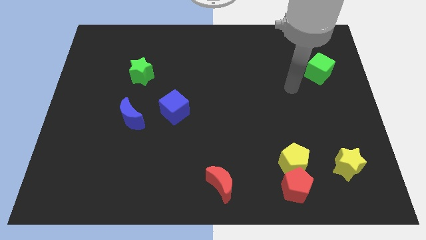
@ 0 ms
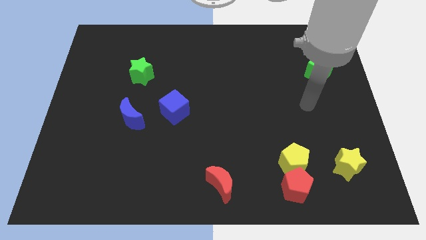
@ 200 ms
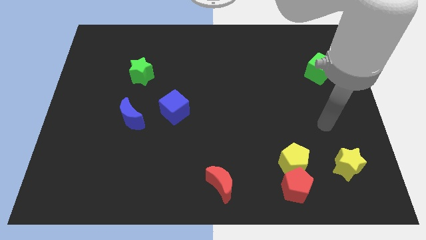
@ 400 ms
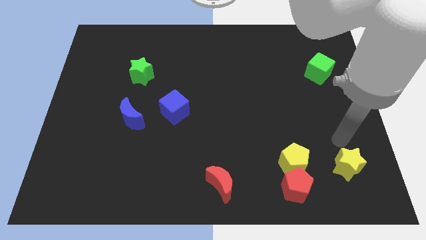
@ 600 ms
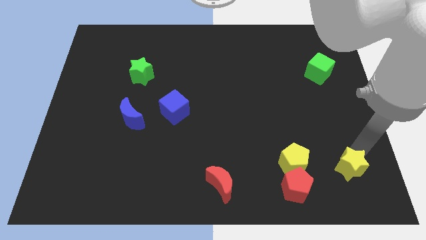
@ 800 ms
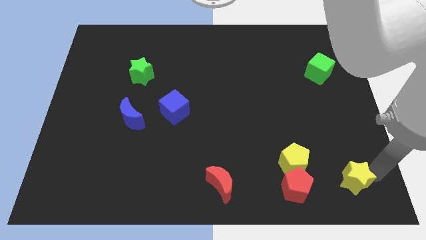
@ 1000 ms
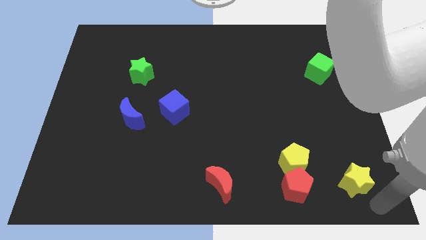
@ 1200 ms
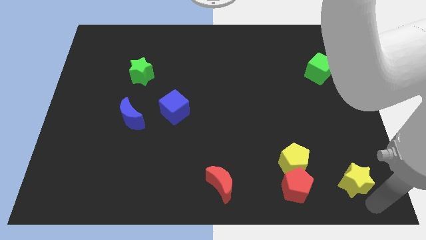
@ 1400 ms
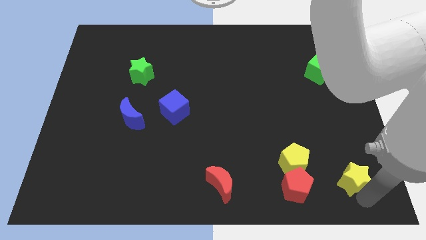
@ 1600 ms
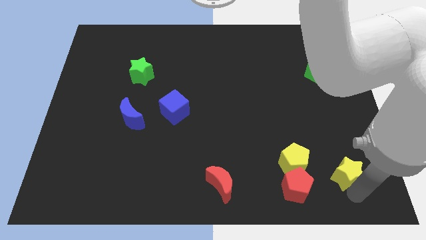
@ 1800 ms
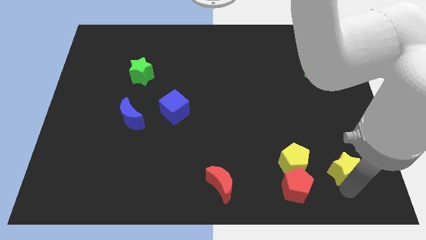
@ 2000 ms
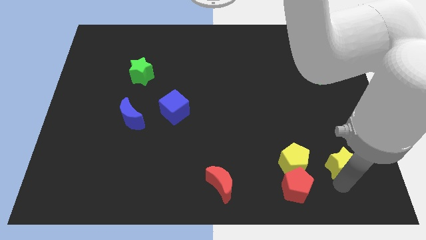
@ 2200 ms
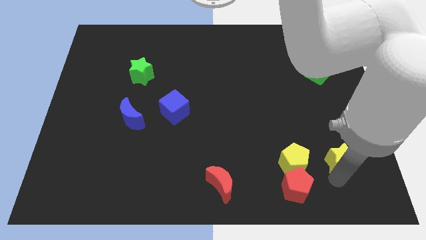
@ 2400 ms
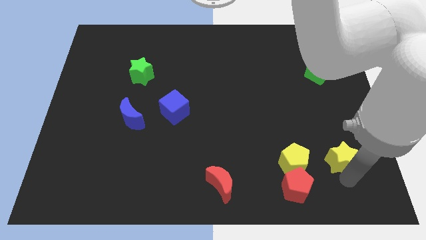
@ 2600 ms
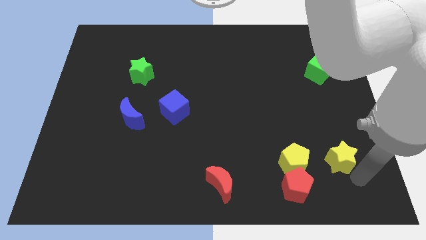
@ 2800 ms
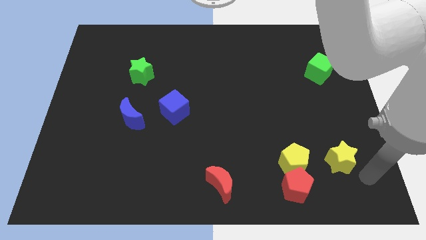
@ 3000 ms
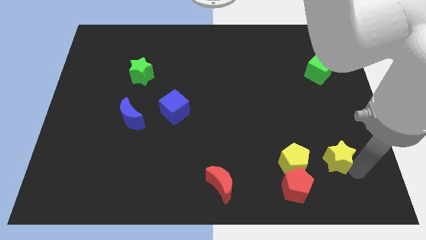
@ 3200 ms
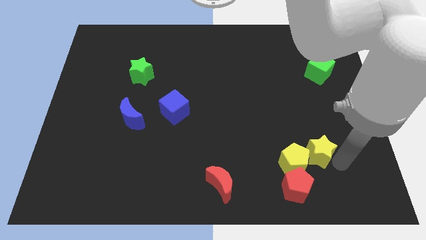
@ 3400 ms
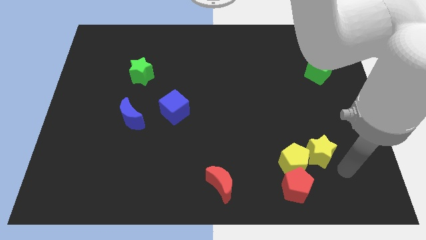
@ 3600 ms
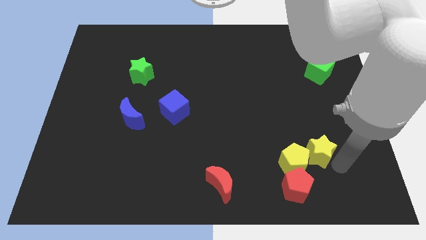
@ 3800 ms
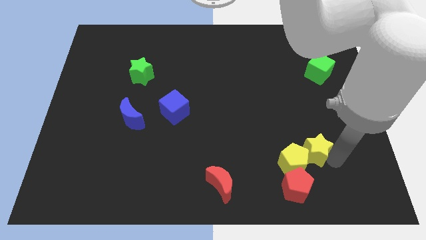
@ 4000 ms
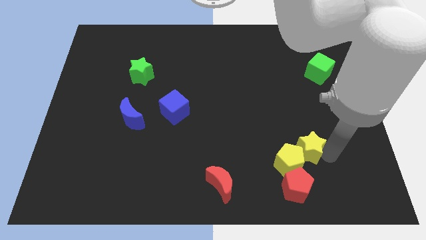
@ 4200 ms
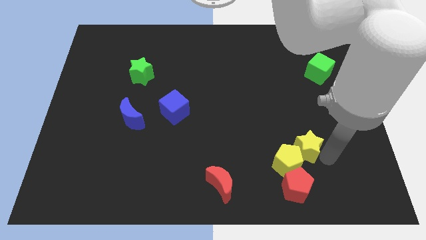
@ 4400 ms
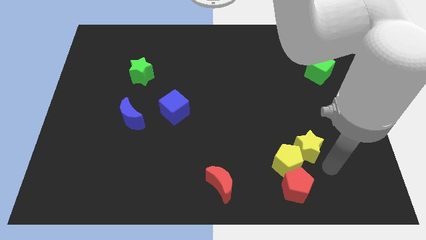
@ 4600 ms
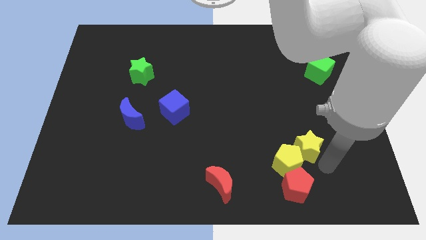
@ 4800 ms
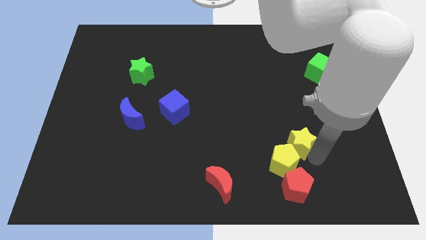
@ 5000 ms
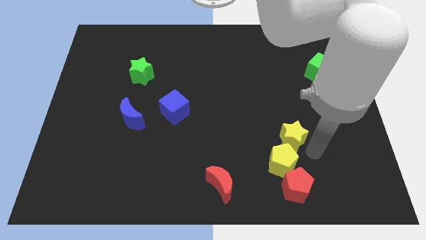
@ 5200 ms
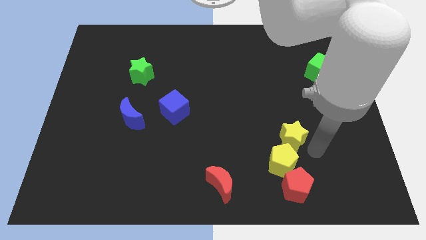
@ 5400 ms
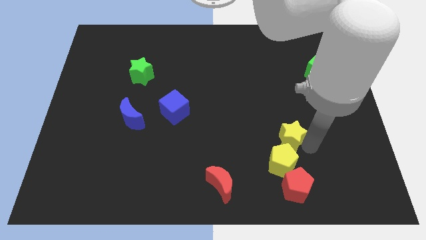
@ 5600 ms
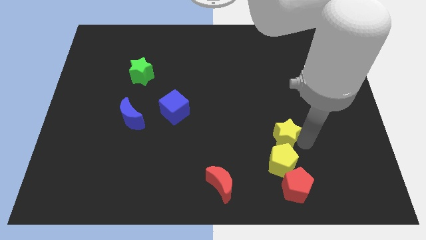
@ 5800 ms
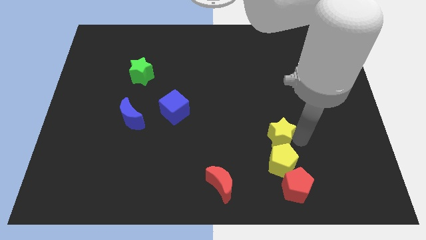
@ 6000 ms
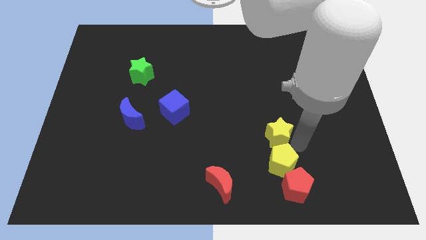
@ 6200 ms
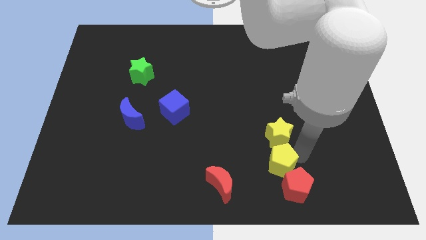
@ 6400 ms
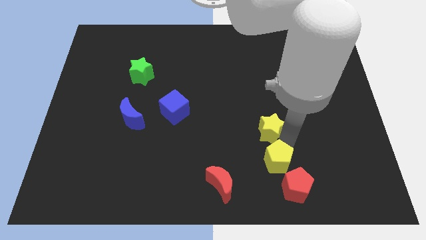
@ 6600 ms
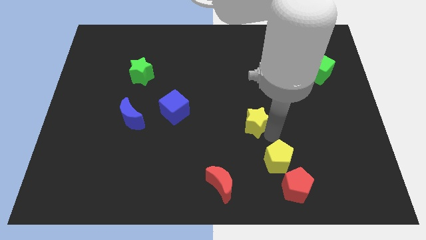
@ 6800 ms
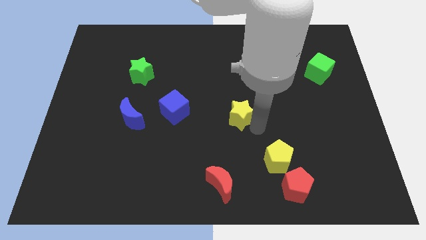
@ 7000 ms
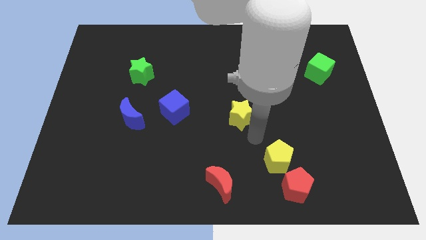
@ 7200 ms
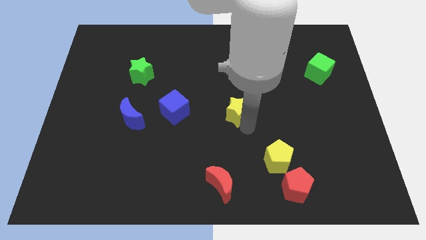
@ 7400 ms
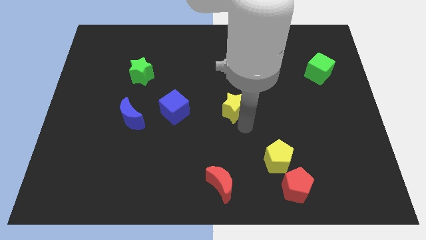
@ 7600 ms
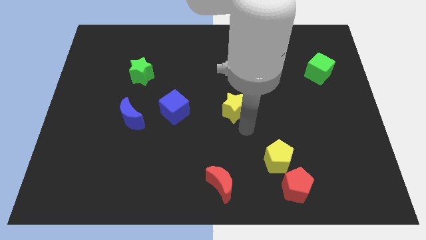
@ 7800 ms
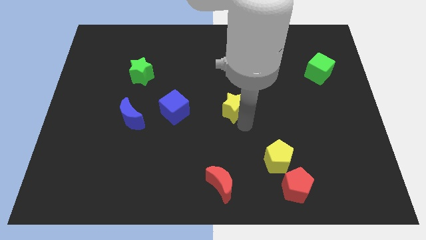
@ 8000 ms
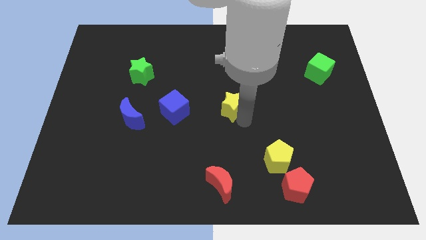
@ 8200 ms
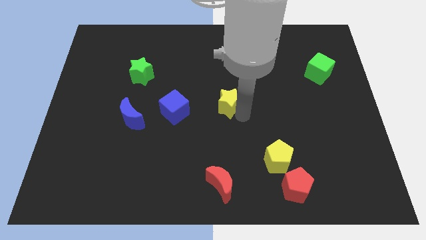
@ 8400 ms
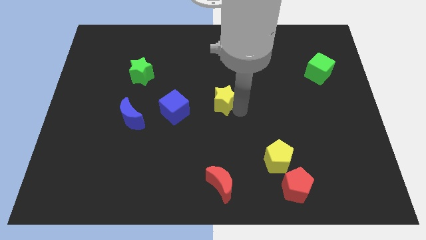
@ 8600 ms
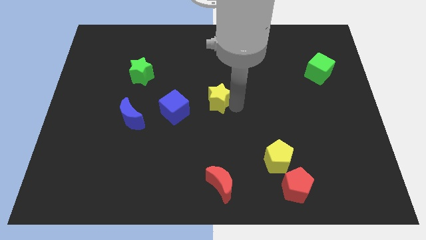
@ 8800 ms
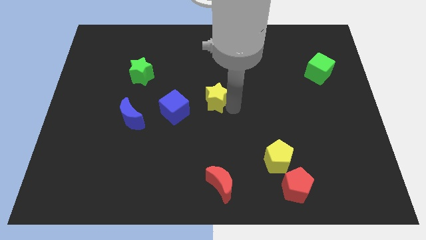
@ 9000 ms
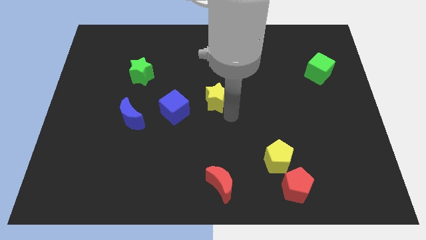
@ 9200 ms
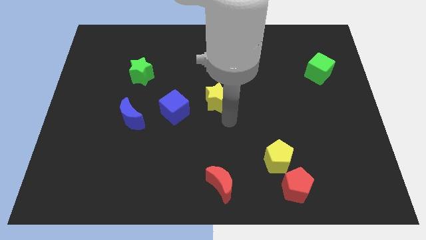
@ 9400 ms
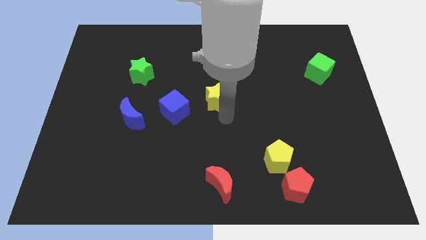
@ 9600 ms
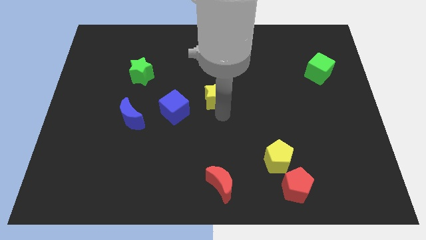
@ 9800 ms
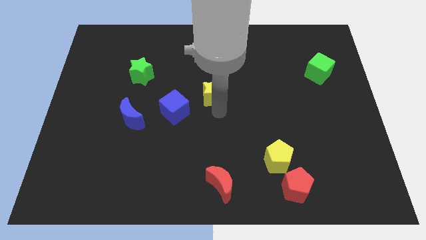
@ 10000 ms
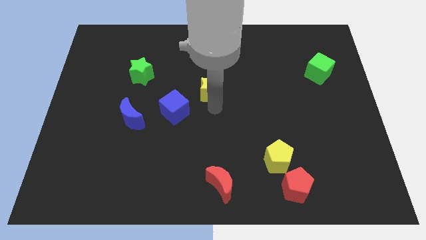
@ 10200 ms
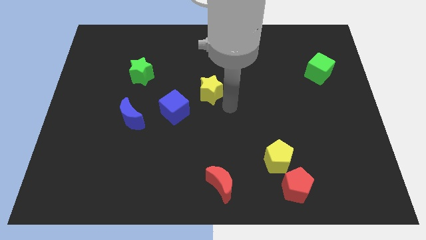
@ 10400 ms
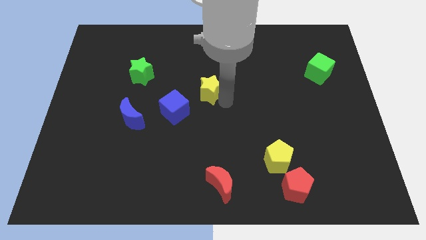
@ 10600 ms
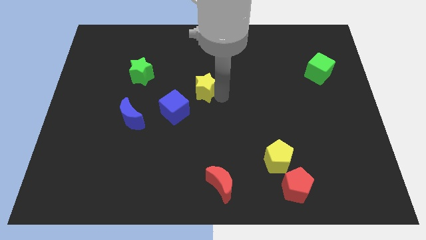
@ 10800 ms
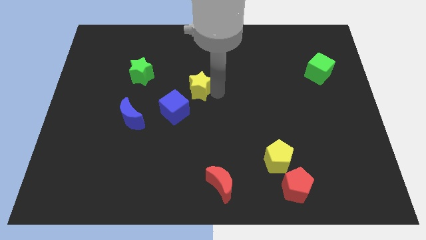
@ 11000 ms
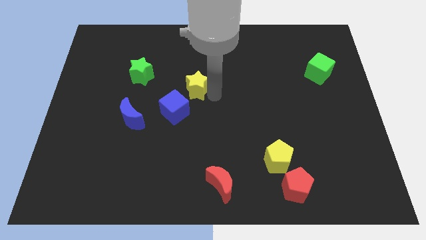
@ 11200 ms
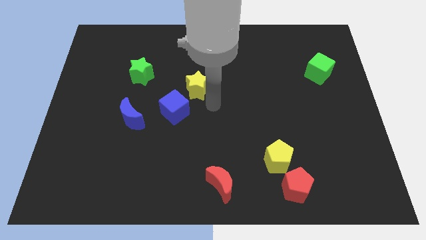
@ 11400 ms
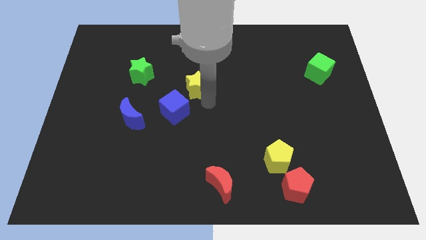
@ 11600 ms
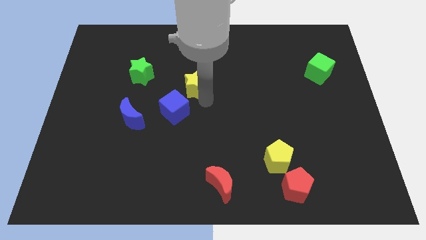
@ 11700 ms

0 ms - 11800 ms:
push the yellow star to the right of the green star
